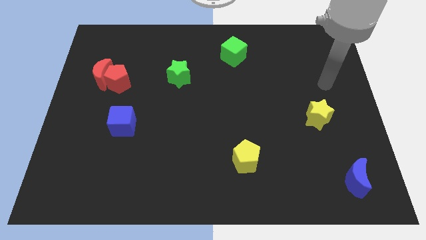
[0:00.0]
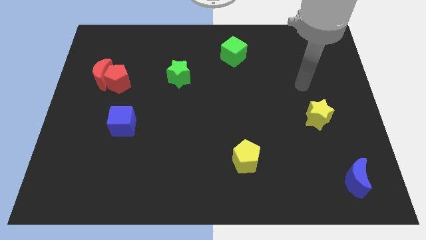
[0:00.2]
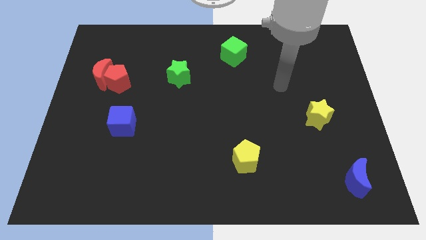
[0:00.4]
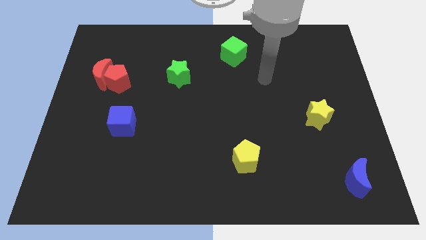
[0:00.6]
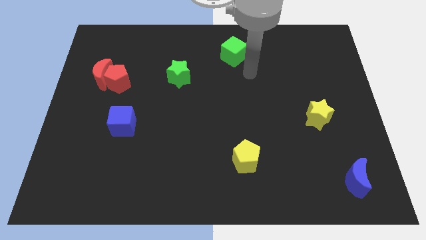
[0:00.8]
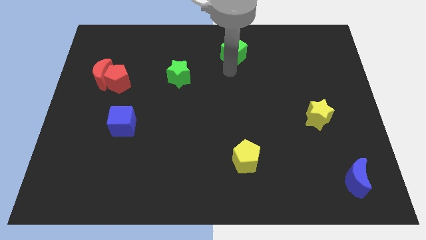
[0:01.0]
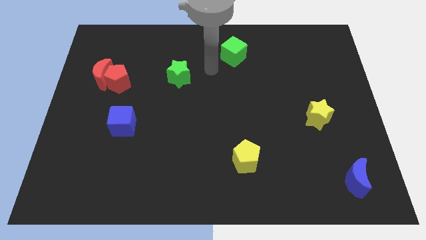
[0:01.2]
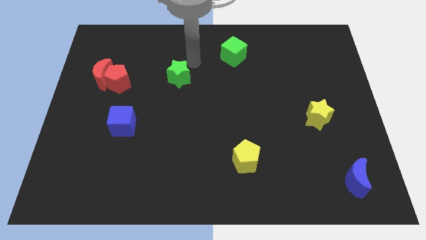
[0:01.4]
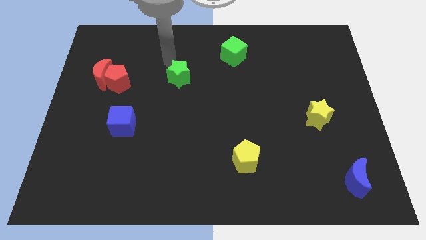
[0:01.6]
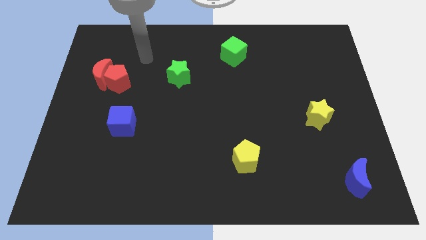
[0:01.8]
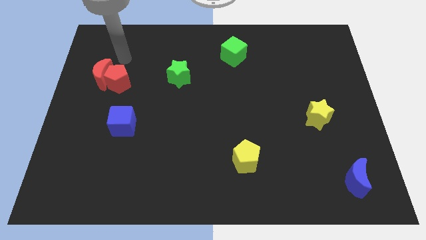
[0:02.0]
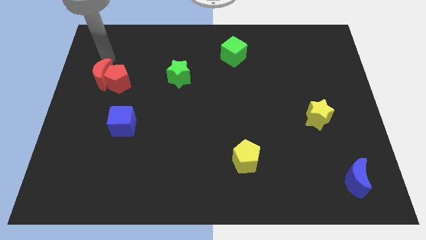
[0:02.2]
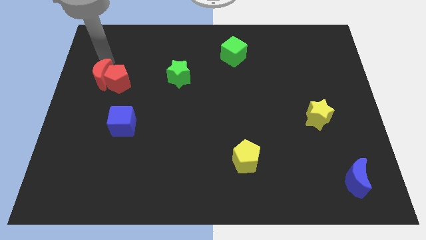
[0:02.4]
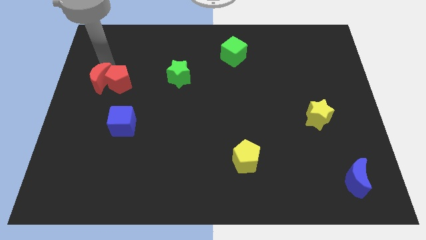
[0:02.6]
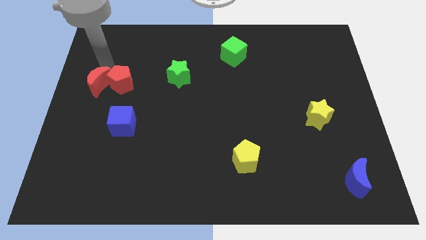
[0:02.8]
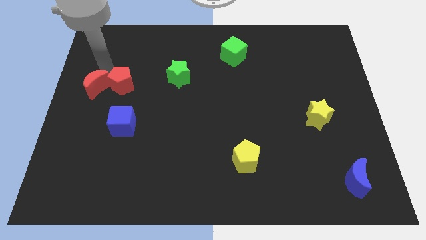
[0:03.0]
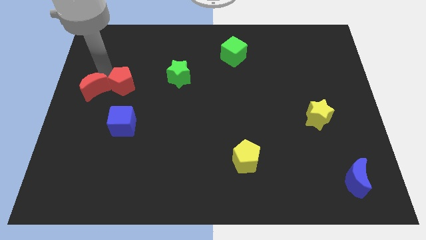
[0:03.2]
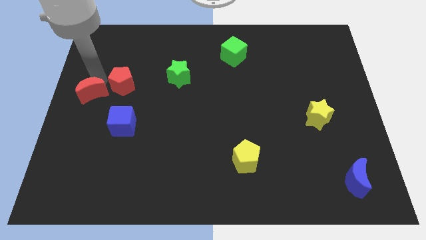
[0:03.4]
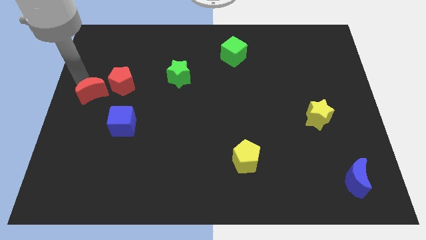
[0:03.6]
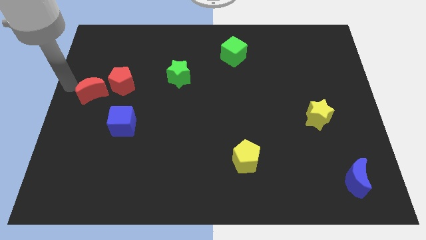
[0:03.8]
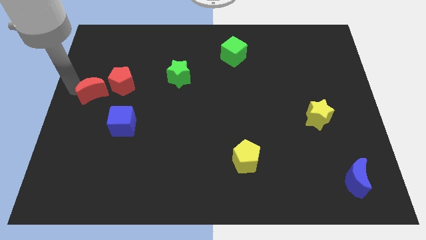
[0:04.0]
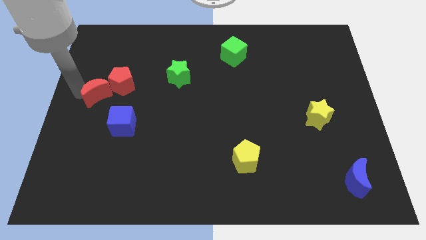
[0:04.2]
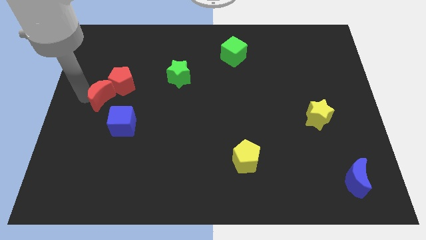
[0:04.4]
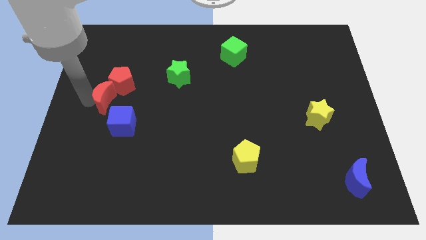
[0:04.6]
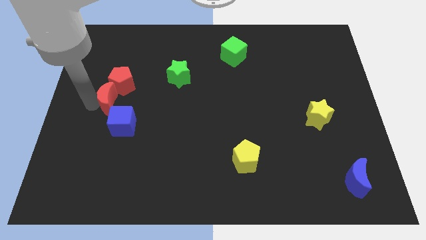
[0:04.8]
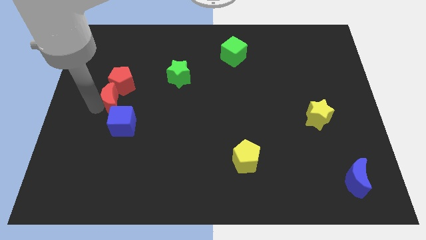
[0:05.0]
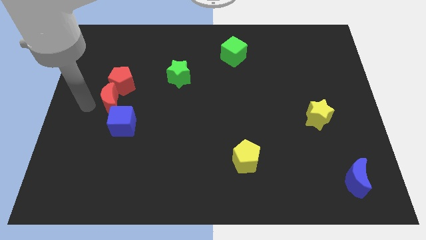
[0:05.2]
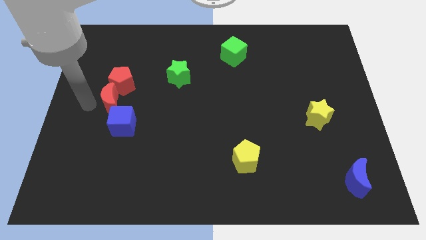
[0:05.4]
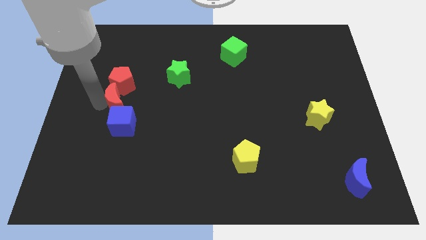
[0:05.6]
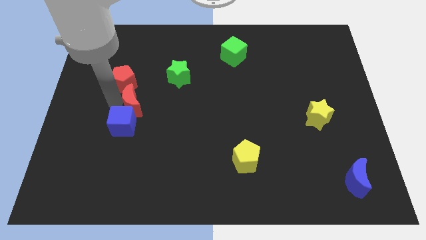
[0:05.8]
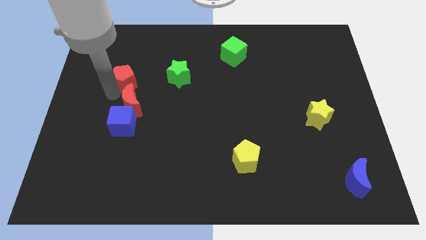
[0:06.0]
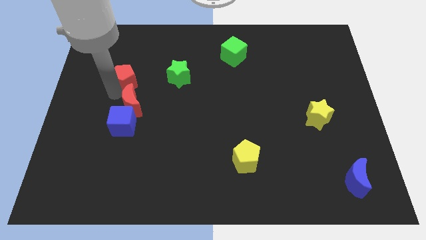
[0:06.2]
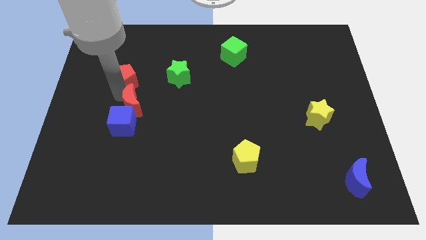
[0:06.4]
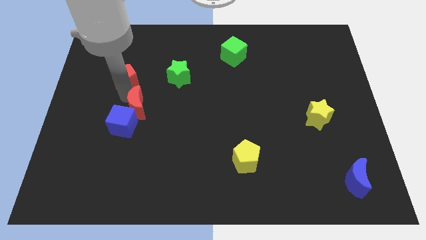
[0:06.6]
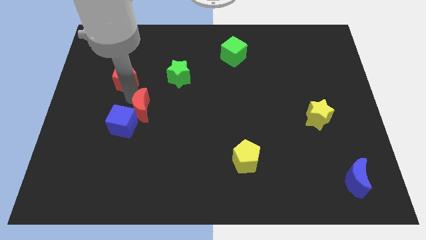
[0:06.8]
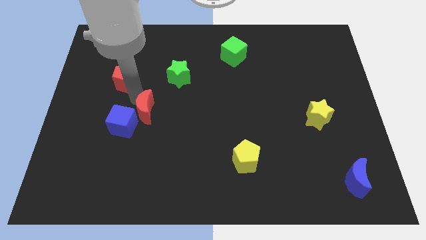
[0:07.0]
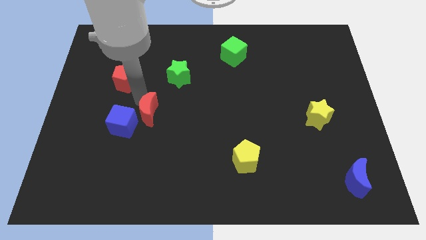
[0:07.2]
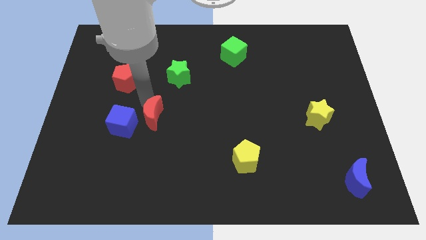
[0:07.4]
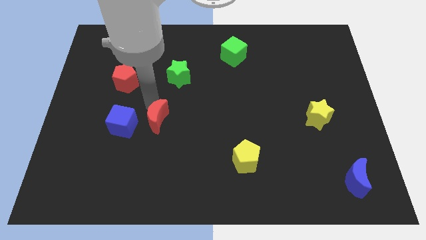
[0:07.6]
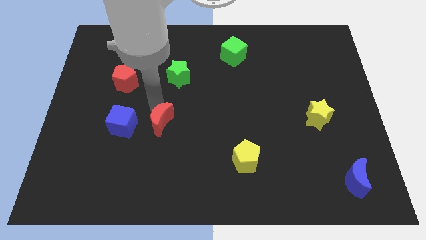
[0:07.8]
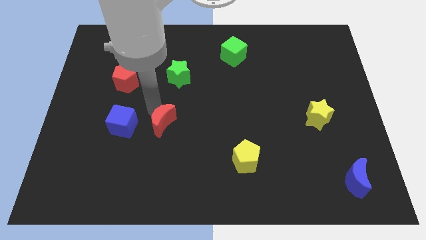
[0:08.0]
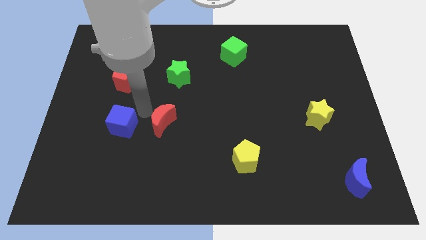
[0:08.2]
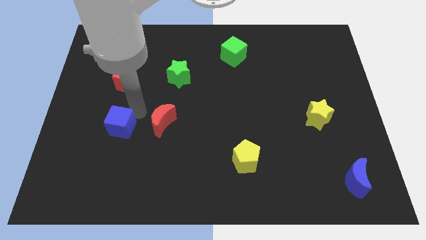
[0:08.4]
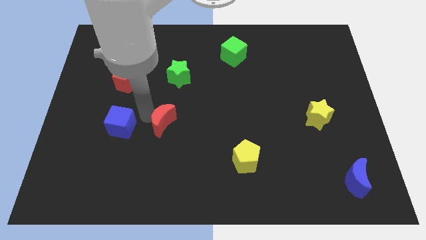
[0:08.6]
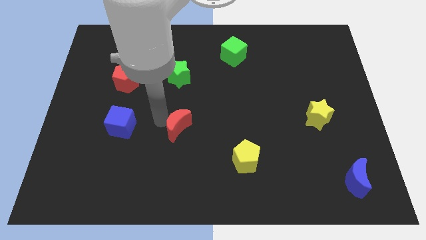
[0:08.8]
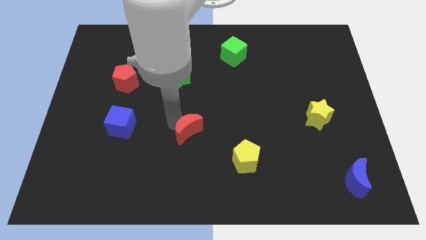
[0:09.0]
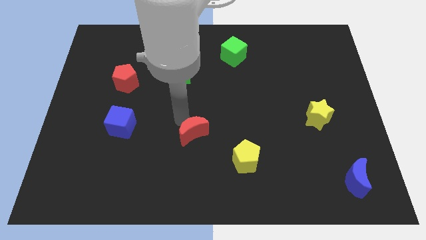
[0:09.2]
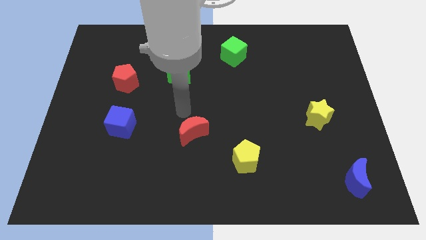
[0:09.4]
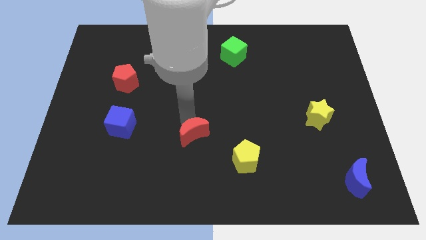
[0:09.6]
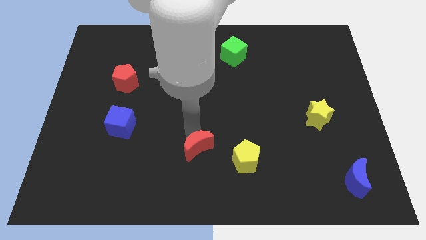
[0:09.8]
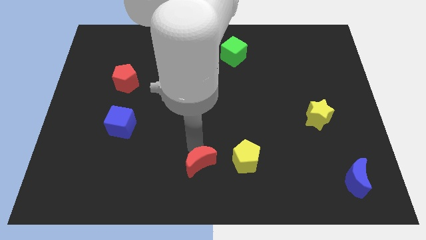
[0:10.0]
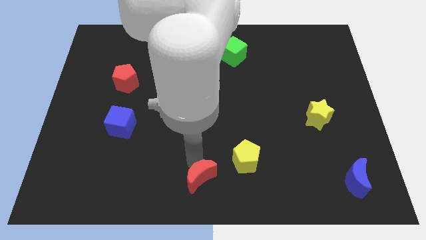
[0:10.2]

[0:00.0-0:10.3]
slide the red moon to the bottom left side of the yellow pentagon

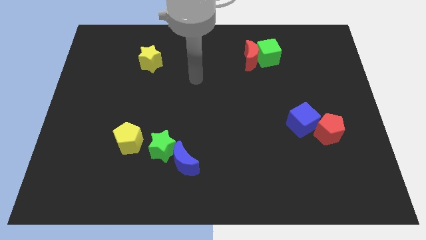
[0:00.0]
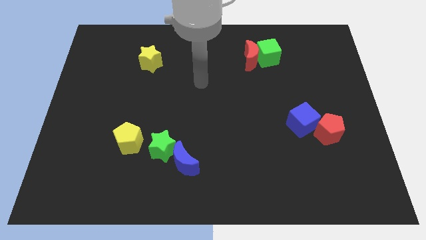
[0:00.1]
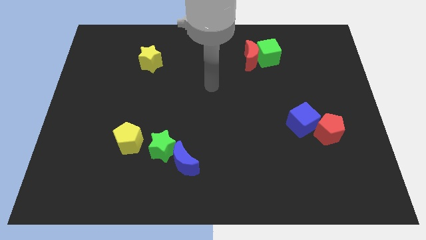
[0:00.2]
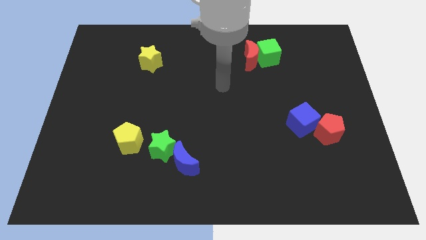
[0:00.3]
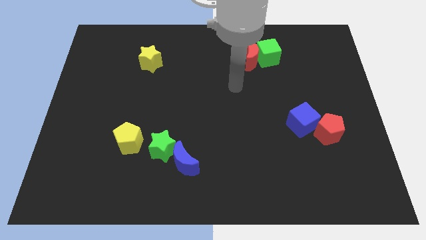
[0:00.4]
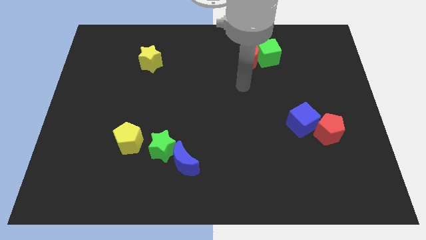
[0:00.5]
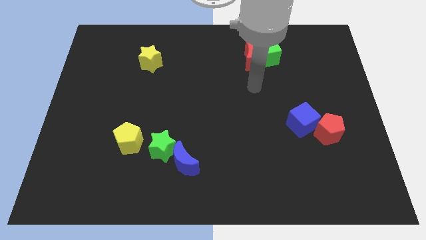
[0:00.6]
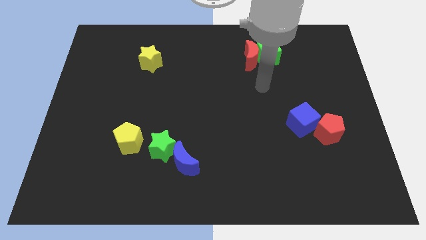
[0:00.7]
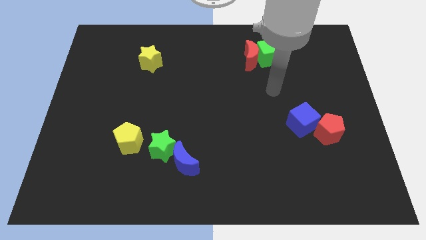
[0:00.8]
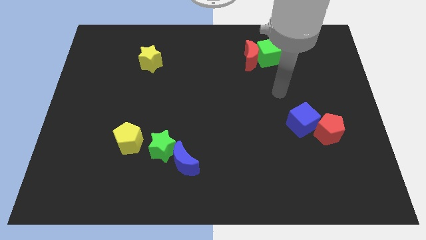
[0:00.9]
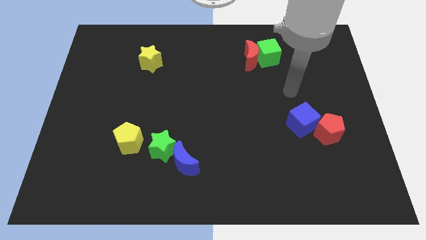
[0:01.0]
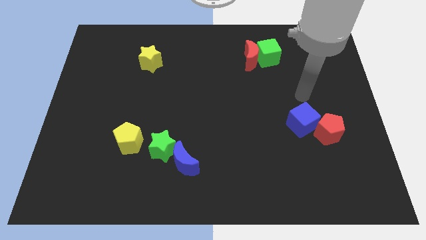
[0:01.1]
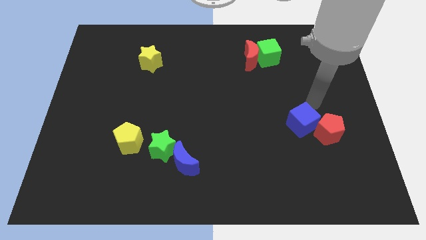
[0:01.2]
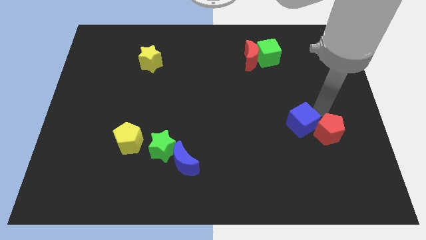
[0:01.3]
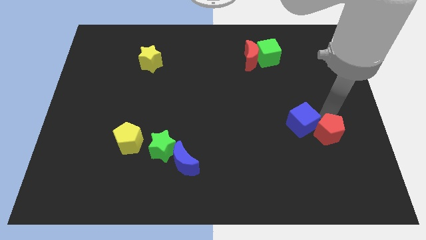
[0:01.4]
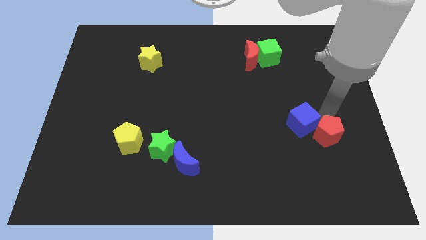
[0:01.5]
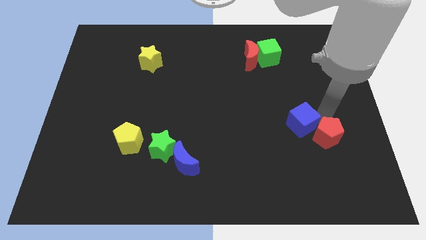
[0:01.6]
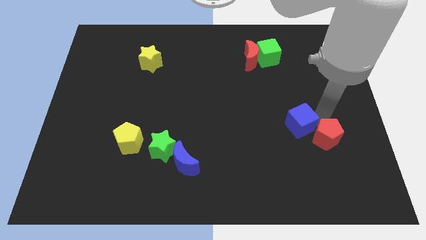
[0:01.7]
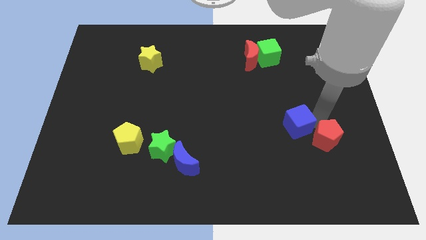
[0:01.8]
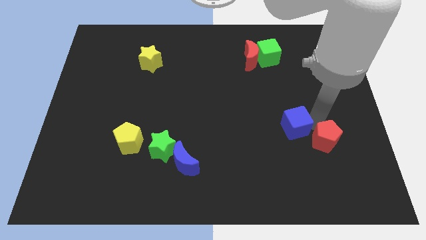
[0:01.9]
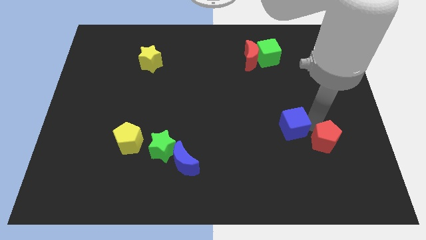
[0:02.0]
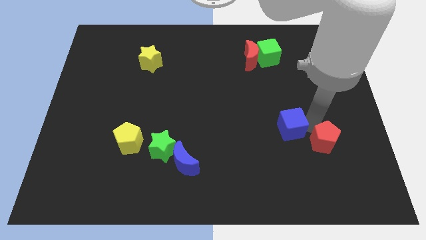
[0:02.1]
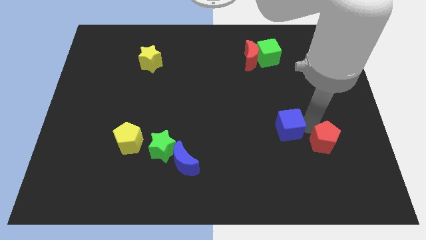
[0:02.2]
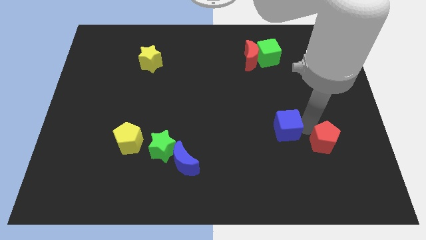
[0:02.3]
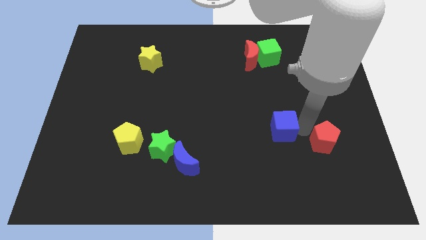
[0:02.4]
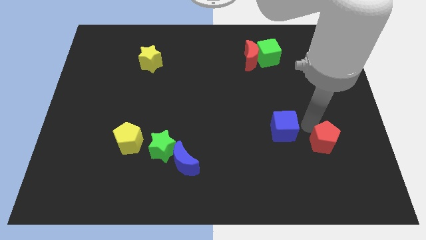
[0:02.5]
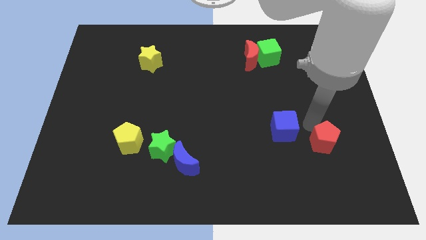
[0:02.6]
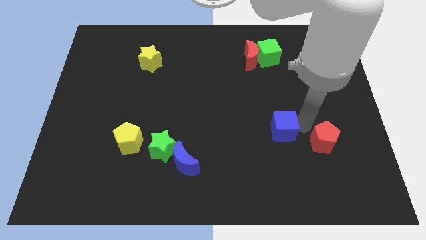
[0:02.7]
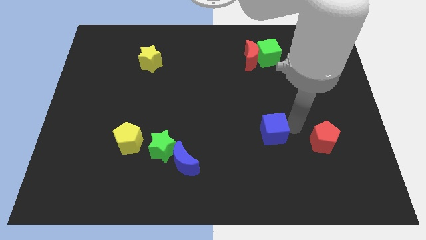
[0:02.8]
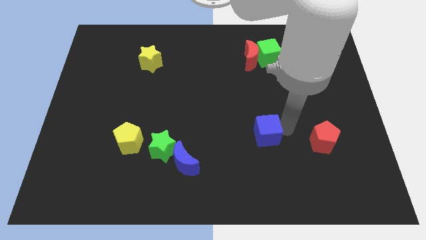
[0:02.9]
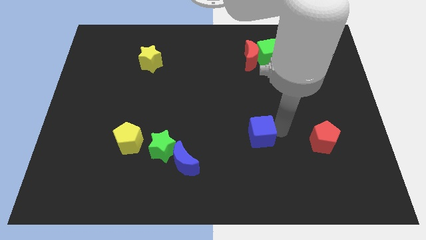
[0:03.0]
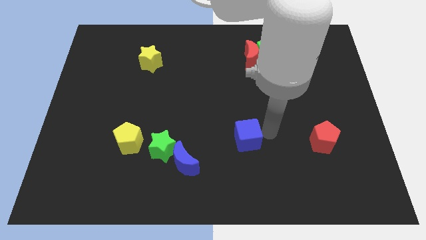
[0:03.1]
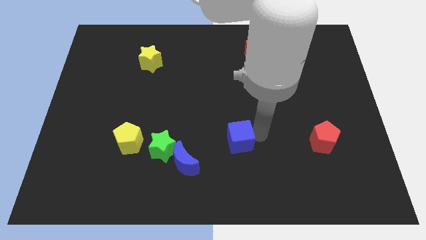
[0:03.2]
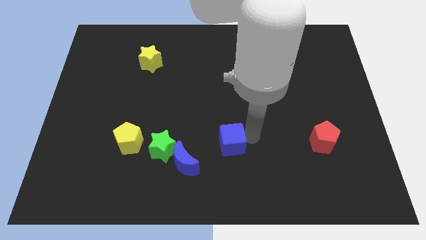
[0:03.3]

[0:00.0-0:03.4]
put the blue cube diagonally up and to the right of the blue moon
